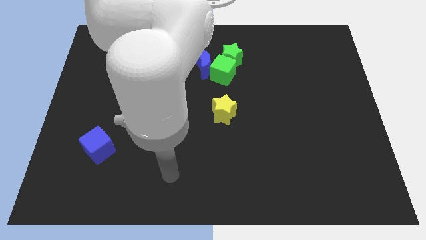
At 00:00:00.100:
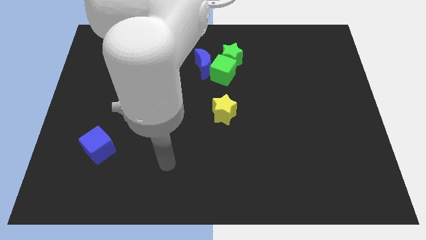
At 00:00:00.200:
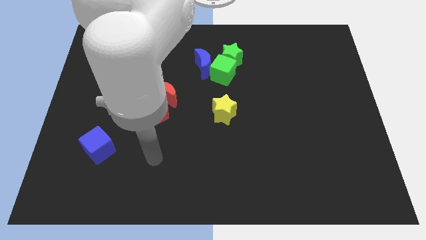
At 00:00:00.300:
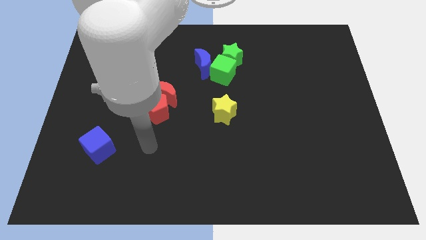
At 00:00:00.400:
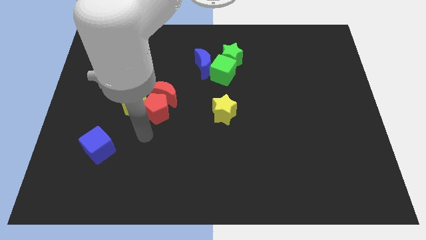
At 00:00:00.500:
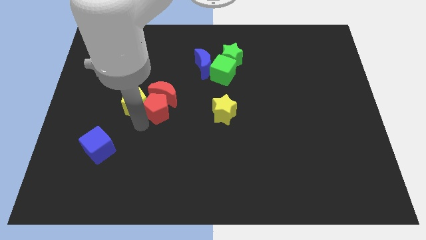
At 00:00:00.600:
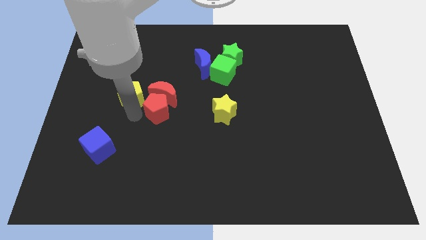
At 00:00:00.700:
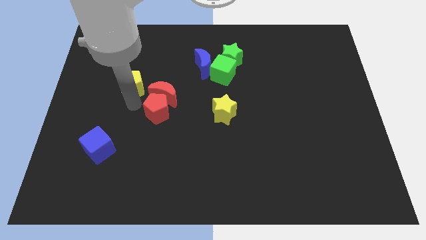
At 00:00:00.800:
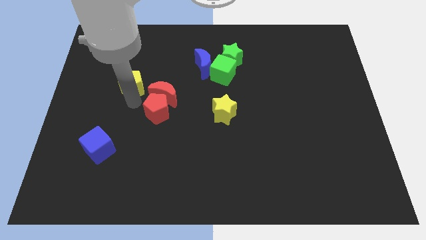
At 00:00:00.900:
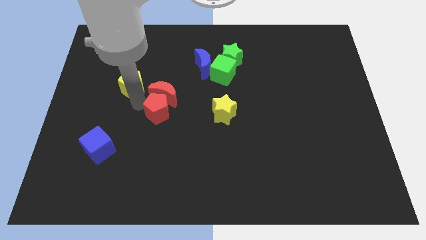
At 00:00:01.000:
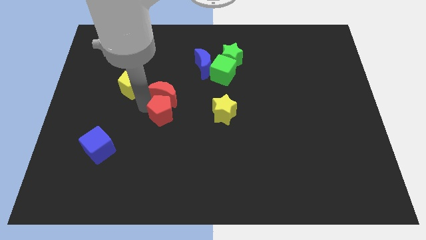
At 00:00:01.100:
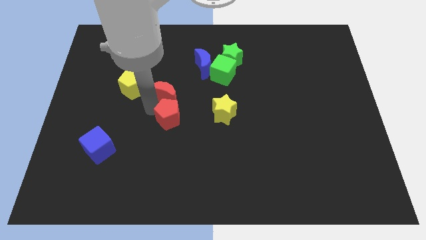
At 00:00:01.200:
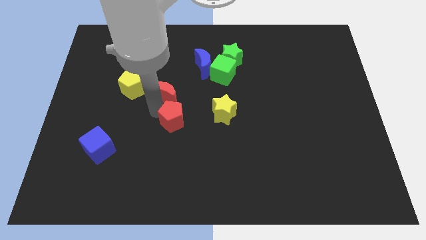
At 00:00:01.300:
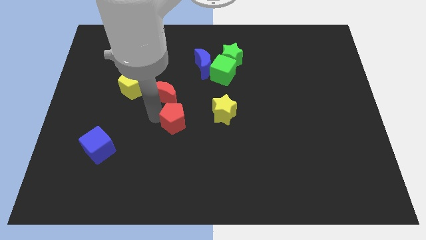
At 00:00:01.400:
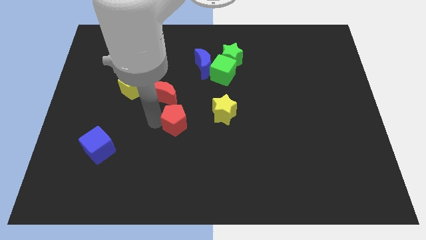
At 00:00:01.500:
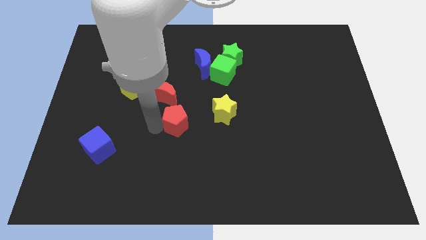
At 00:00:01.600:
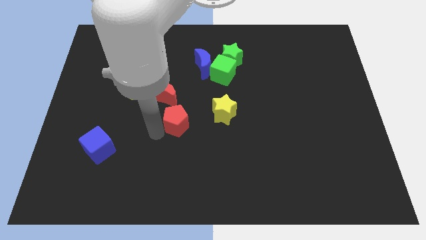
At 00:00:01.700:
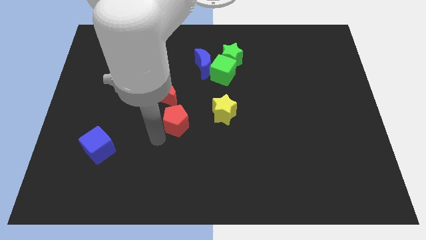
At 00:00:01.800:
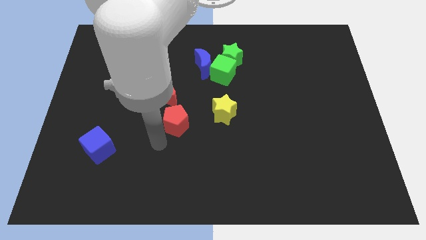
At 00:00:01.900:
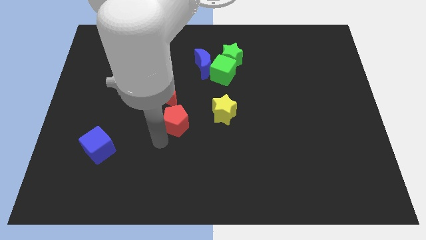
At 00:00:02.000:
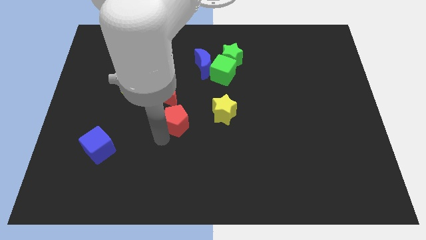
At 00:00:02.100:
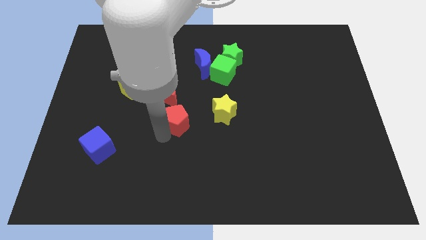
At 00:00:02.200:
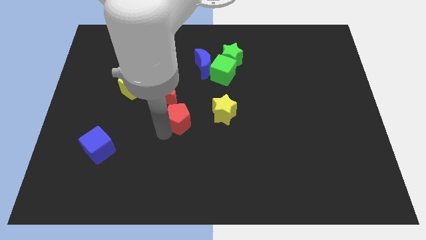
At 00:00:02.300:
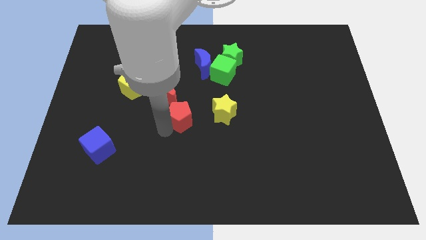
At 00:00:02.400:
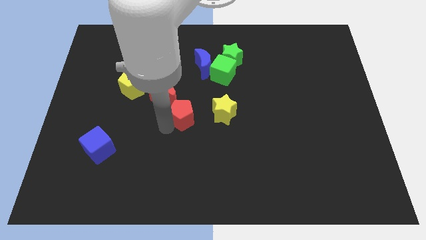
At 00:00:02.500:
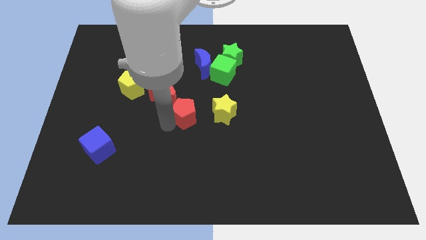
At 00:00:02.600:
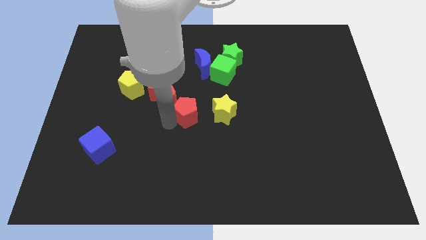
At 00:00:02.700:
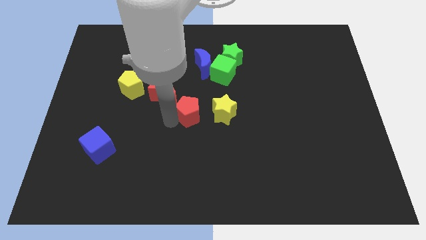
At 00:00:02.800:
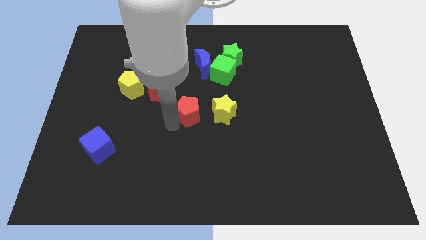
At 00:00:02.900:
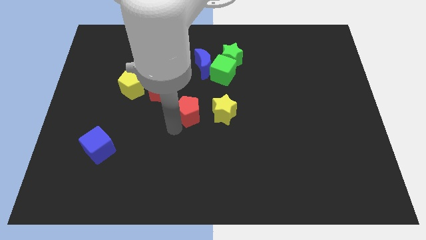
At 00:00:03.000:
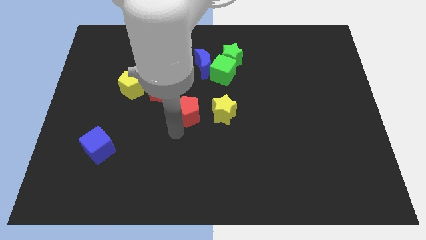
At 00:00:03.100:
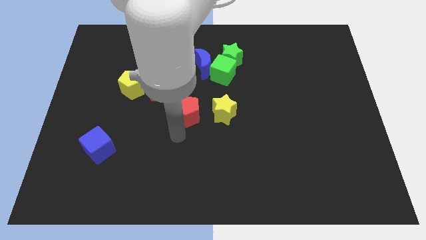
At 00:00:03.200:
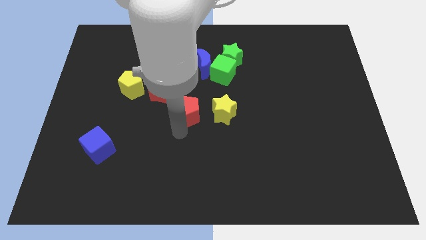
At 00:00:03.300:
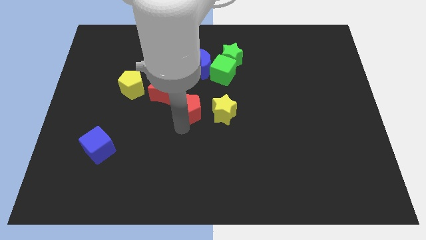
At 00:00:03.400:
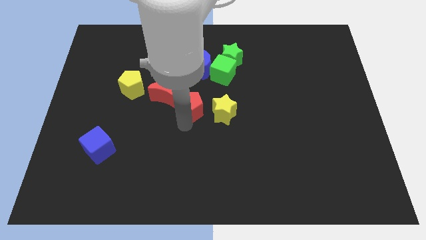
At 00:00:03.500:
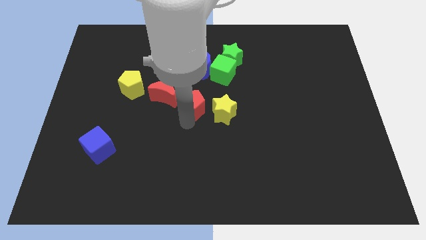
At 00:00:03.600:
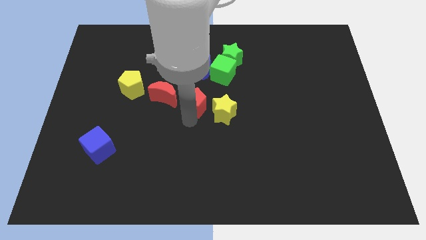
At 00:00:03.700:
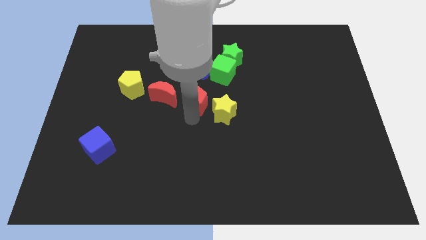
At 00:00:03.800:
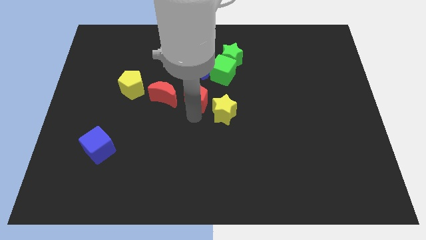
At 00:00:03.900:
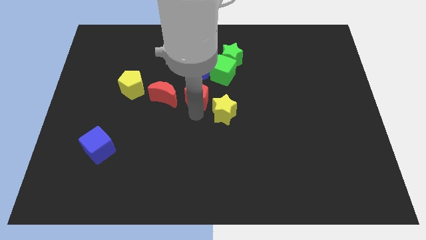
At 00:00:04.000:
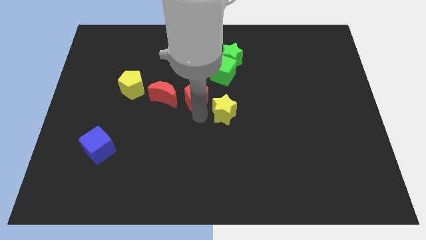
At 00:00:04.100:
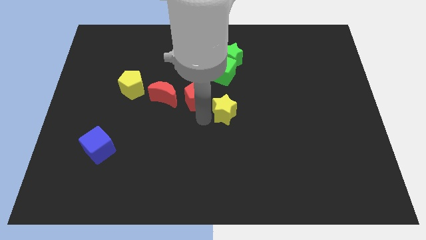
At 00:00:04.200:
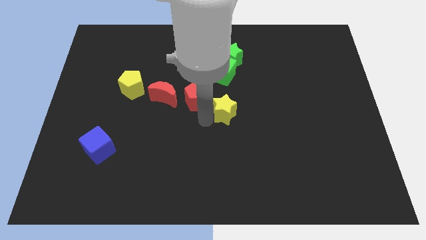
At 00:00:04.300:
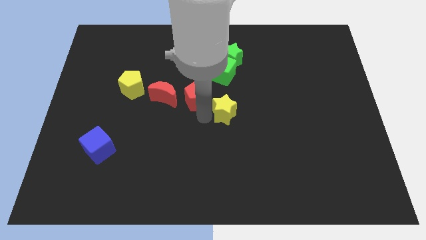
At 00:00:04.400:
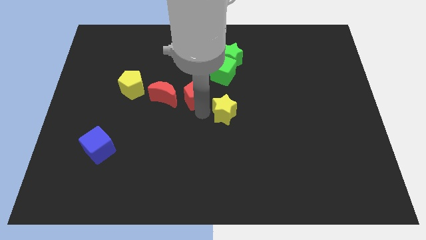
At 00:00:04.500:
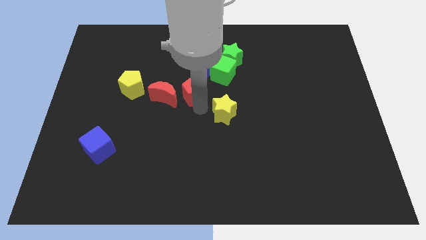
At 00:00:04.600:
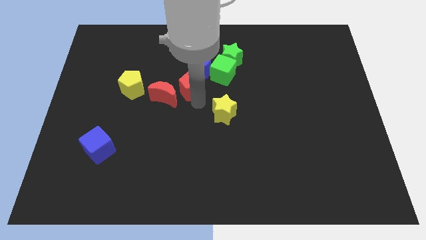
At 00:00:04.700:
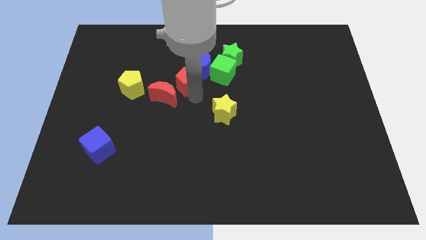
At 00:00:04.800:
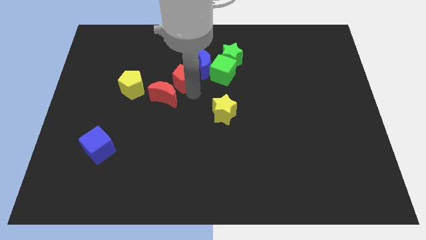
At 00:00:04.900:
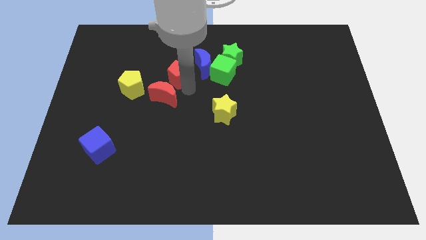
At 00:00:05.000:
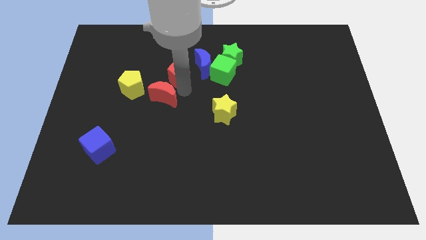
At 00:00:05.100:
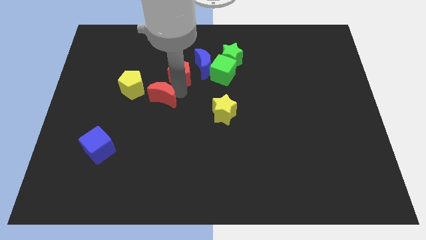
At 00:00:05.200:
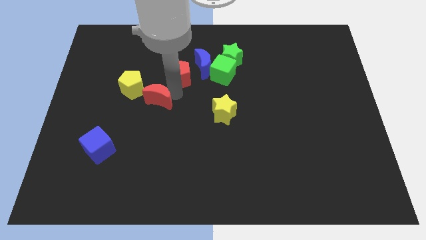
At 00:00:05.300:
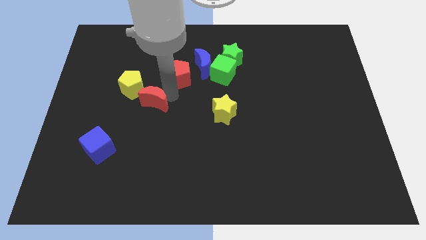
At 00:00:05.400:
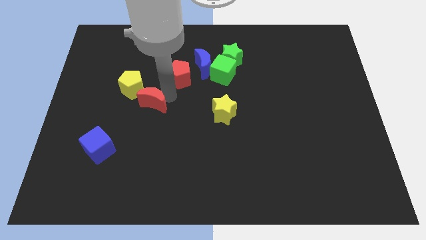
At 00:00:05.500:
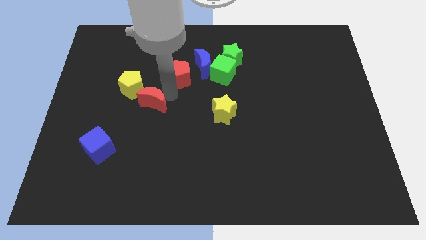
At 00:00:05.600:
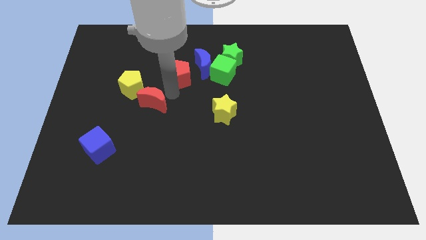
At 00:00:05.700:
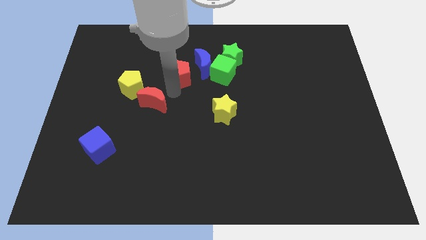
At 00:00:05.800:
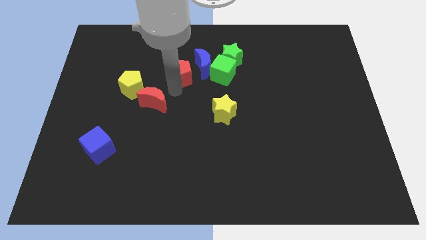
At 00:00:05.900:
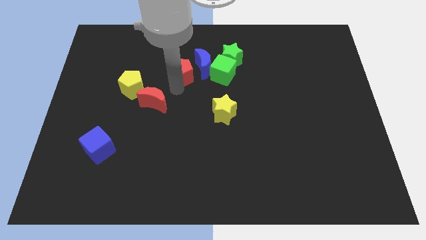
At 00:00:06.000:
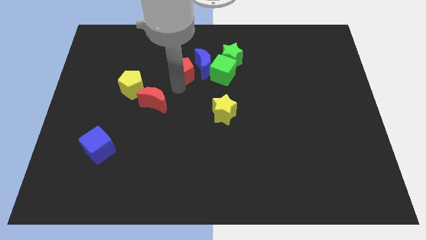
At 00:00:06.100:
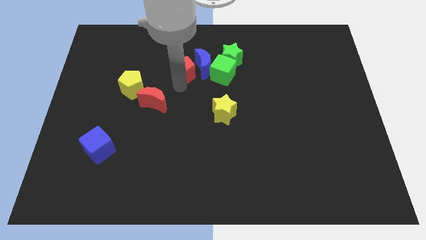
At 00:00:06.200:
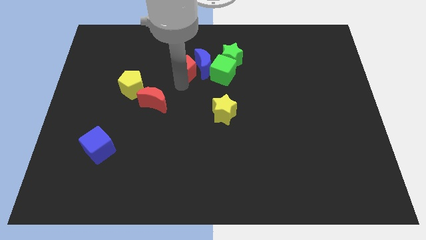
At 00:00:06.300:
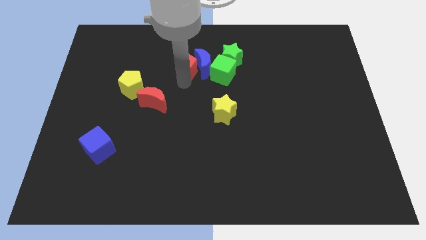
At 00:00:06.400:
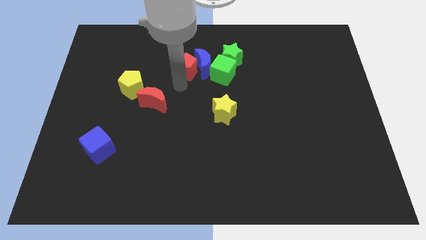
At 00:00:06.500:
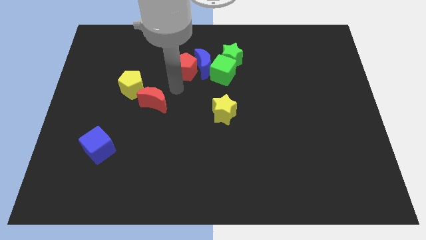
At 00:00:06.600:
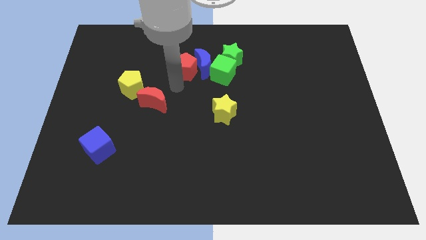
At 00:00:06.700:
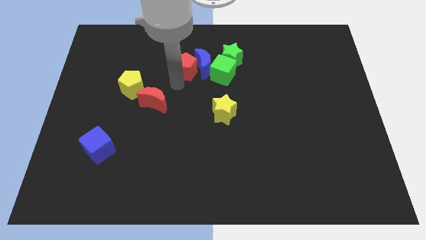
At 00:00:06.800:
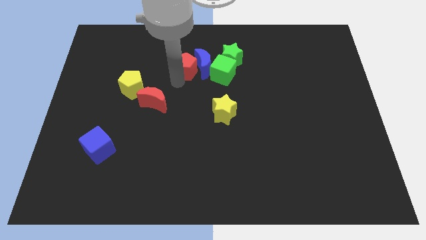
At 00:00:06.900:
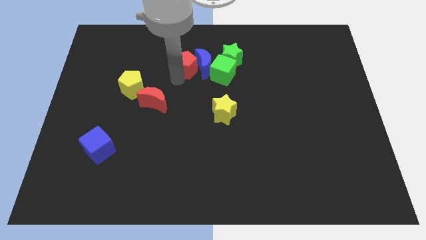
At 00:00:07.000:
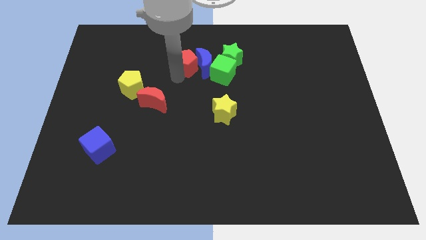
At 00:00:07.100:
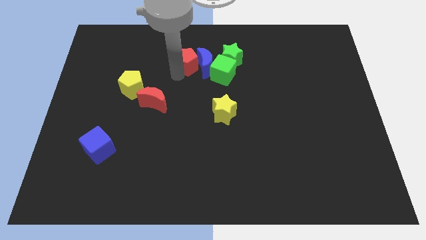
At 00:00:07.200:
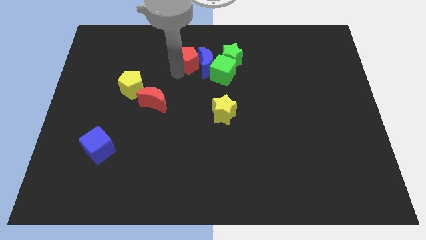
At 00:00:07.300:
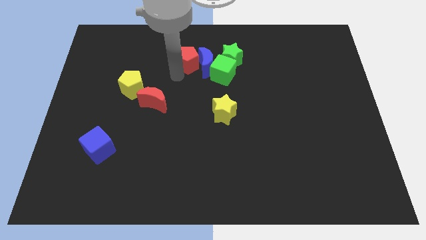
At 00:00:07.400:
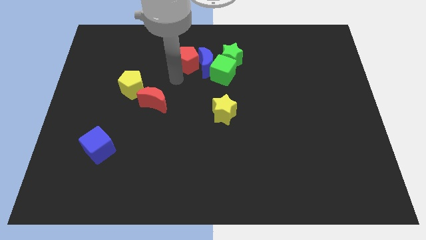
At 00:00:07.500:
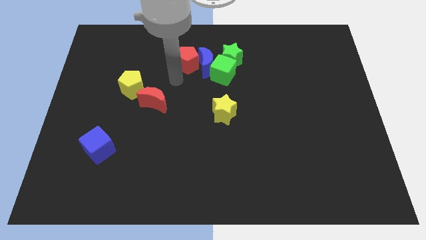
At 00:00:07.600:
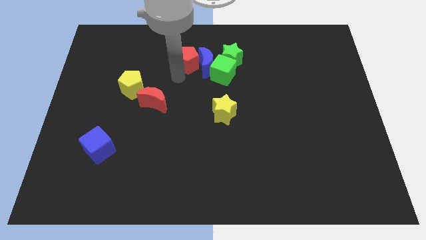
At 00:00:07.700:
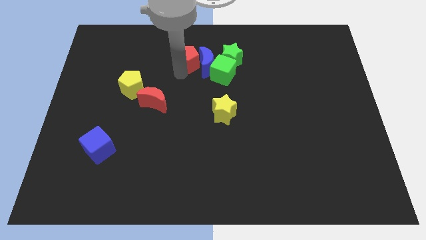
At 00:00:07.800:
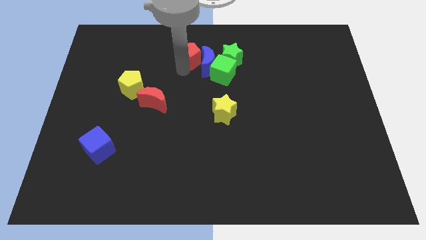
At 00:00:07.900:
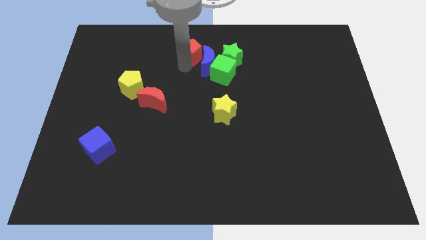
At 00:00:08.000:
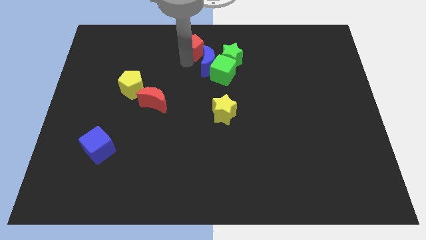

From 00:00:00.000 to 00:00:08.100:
put the red pentagon to the top
